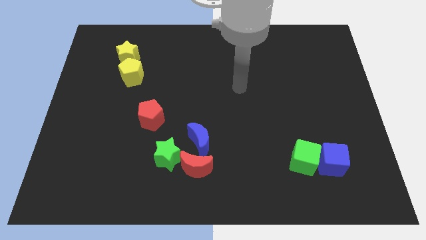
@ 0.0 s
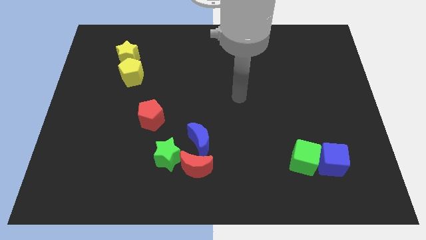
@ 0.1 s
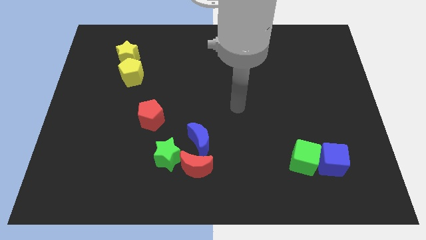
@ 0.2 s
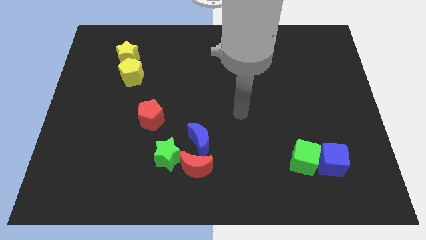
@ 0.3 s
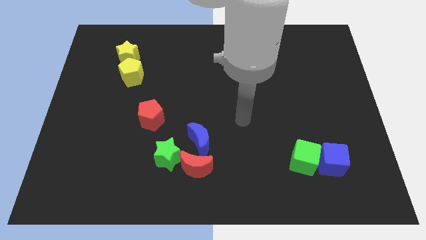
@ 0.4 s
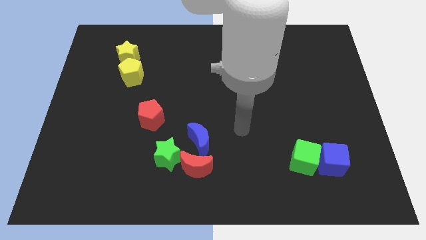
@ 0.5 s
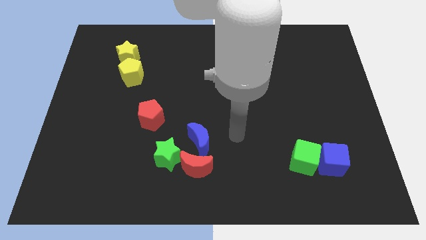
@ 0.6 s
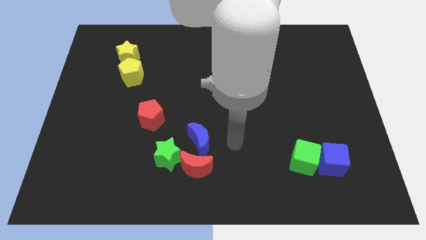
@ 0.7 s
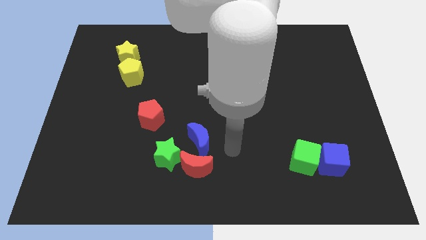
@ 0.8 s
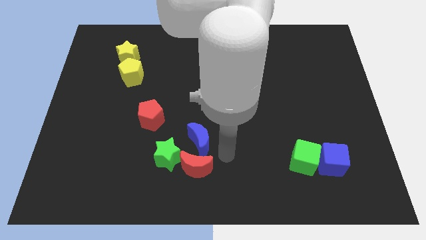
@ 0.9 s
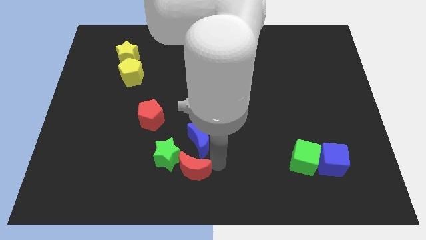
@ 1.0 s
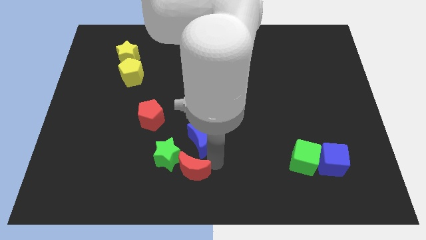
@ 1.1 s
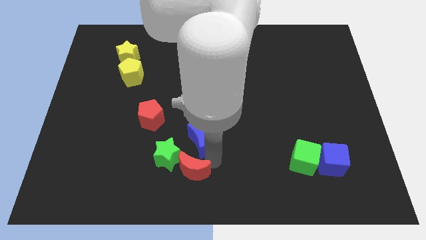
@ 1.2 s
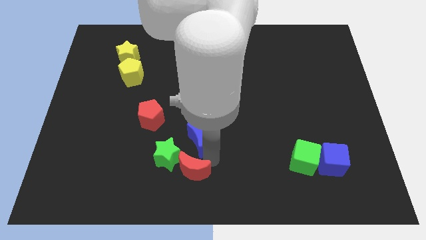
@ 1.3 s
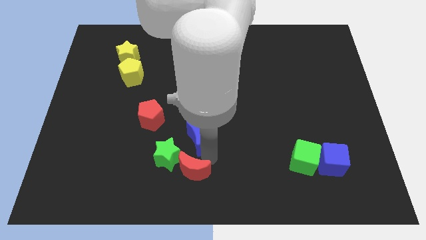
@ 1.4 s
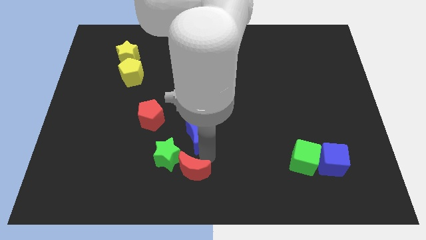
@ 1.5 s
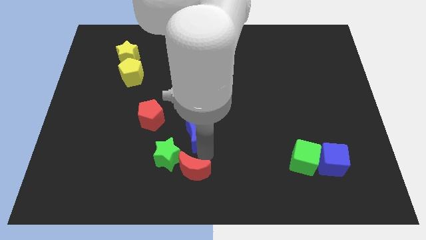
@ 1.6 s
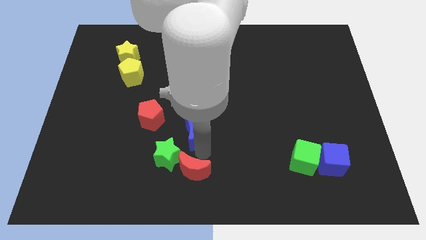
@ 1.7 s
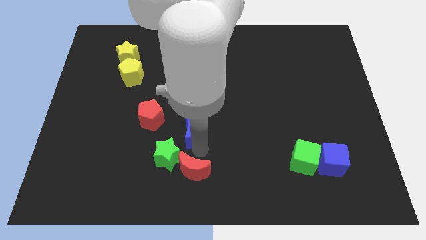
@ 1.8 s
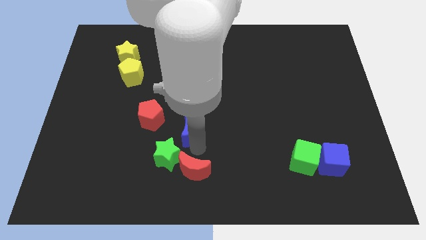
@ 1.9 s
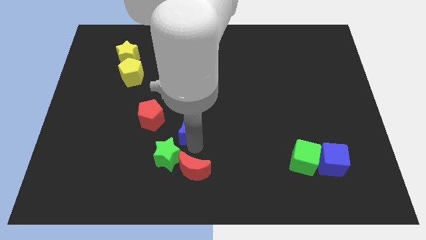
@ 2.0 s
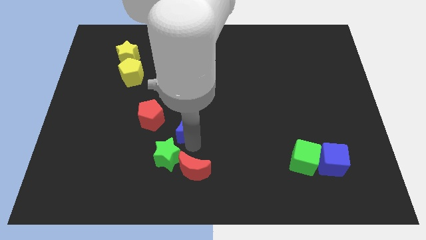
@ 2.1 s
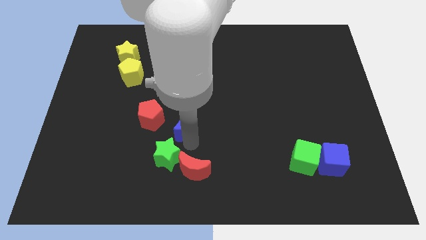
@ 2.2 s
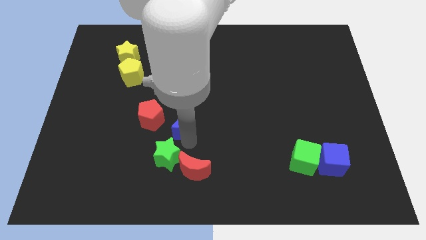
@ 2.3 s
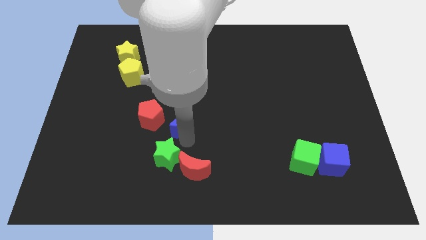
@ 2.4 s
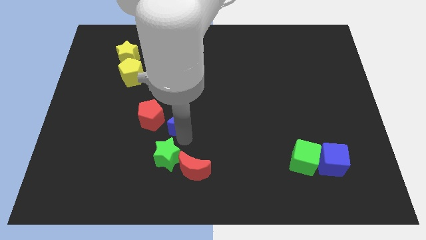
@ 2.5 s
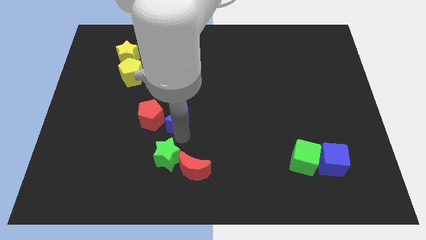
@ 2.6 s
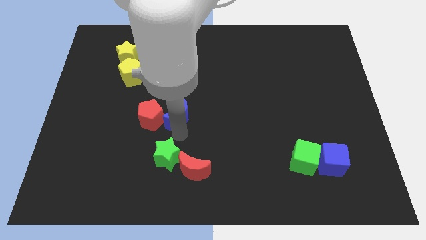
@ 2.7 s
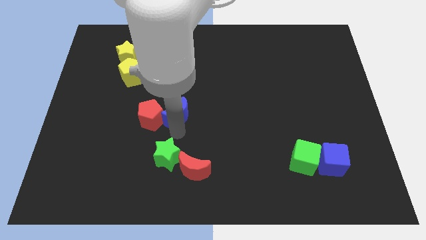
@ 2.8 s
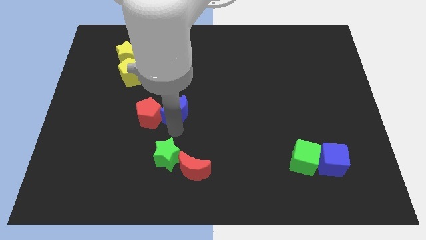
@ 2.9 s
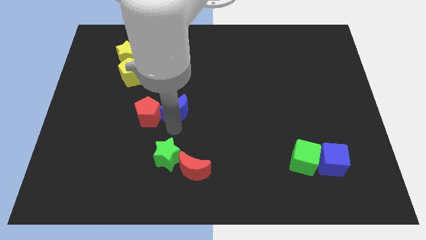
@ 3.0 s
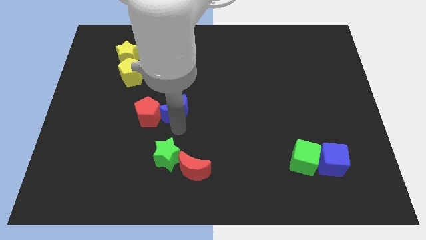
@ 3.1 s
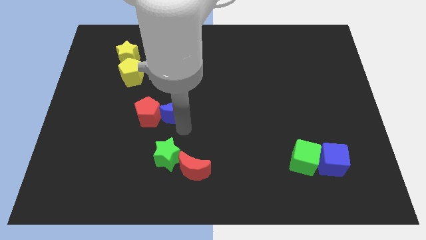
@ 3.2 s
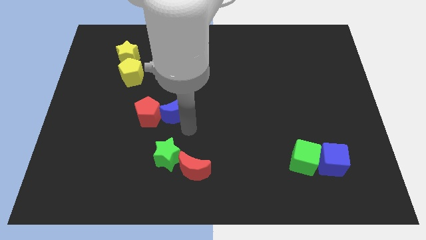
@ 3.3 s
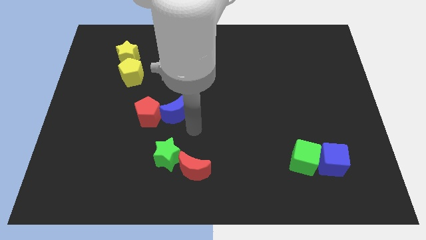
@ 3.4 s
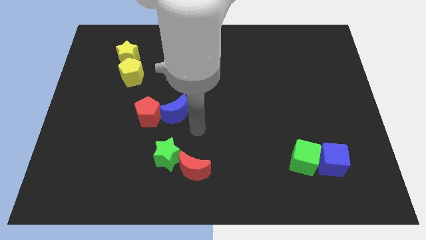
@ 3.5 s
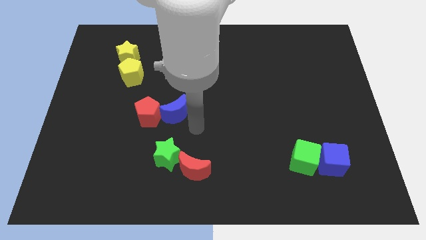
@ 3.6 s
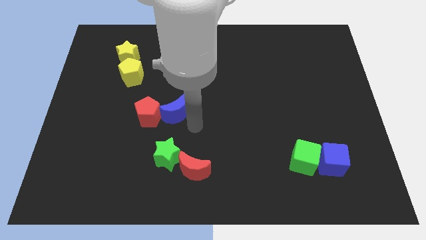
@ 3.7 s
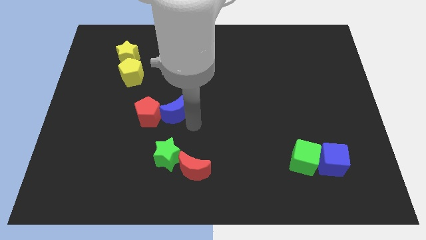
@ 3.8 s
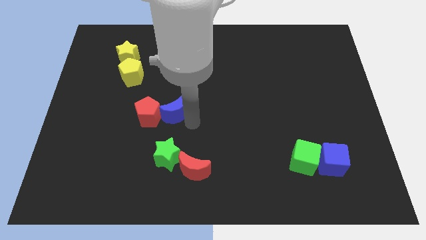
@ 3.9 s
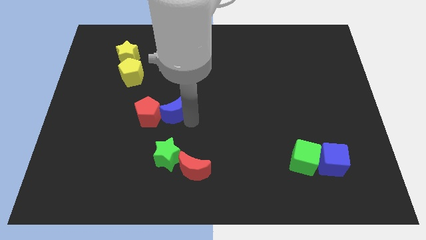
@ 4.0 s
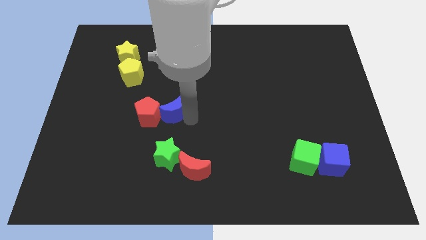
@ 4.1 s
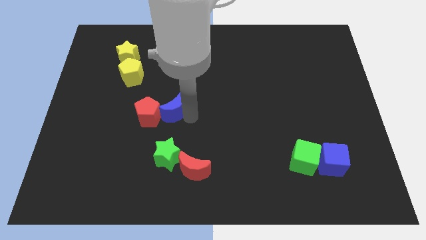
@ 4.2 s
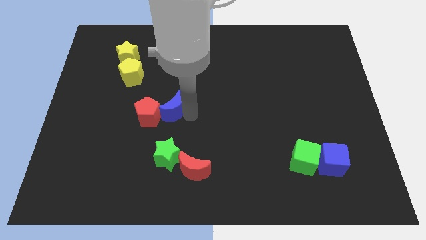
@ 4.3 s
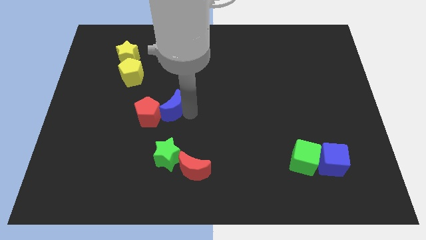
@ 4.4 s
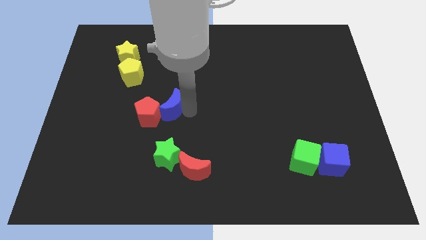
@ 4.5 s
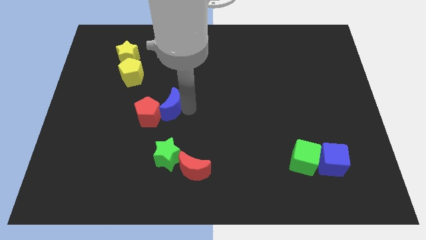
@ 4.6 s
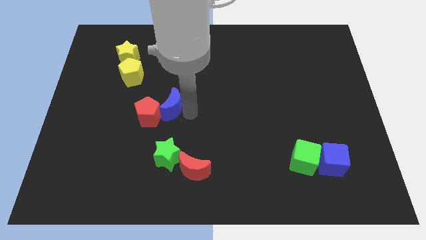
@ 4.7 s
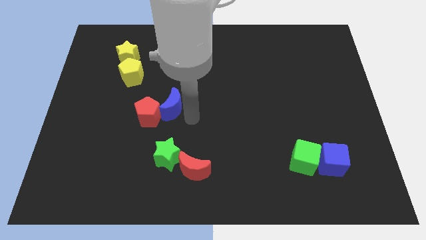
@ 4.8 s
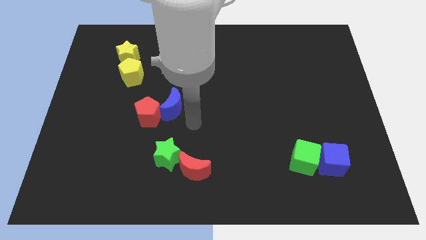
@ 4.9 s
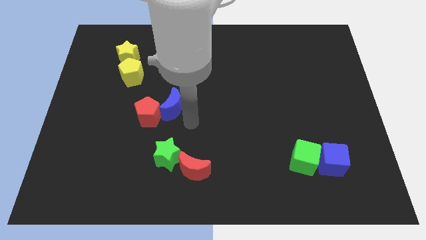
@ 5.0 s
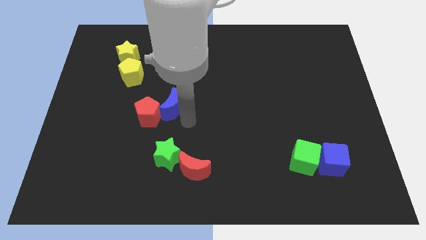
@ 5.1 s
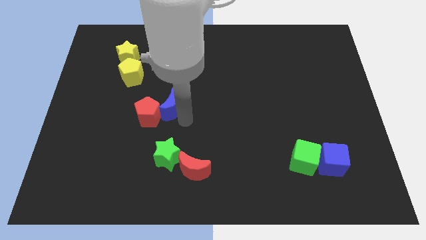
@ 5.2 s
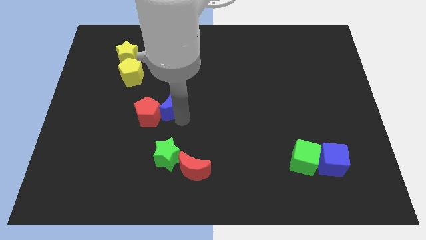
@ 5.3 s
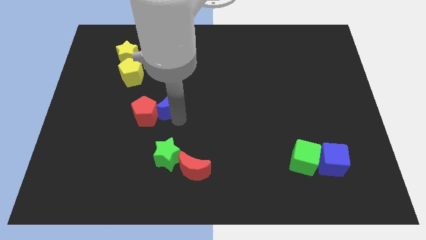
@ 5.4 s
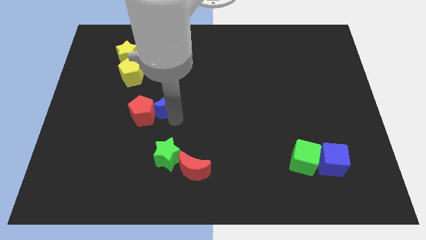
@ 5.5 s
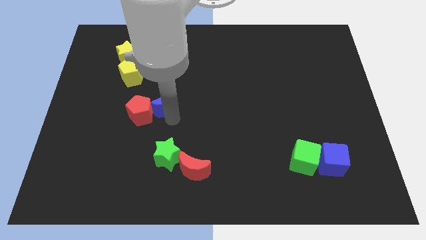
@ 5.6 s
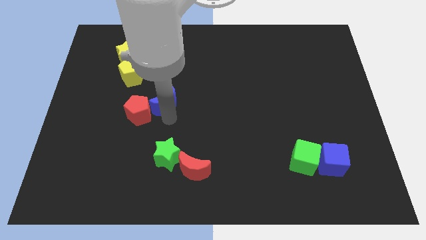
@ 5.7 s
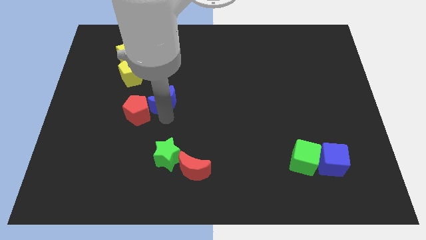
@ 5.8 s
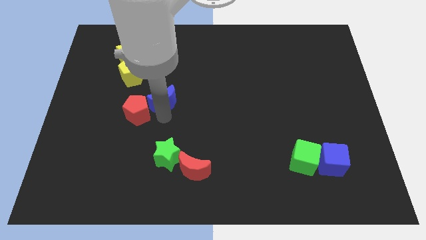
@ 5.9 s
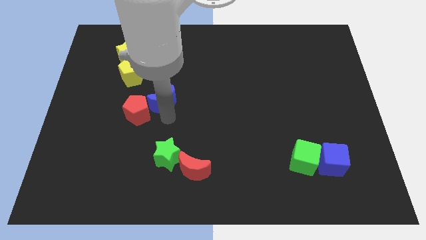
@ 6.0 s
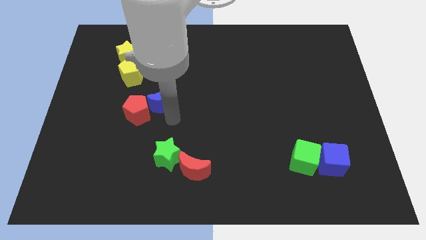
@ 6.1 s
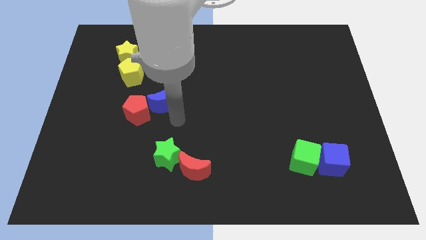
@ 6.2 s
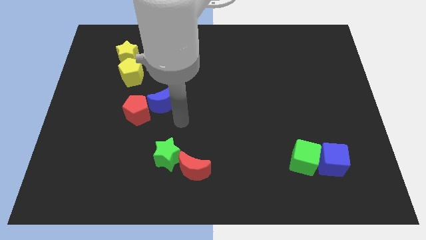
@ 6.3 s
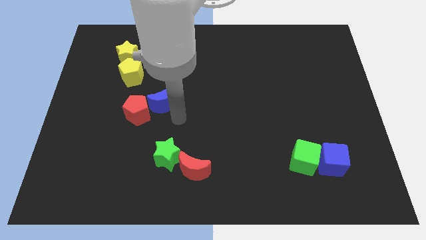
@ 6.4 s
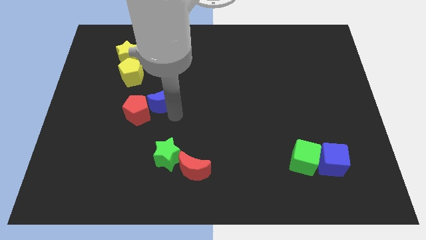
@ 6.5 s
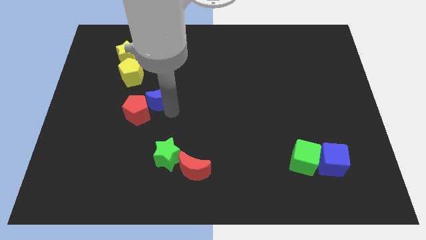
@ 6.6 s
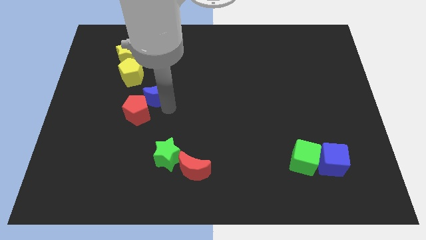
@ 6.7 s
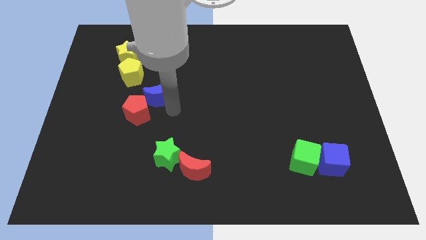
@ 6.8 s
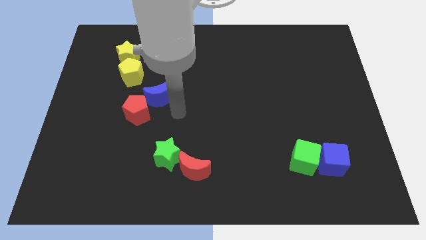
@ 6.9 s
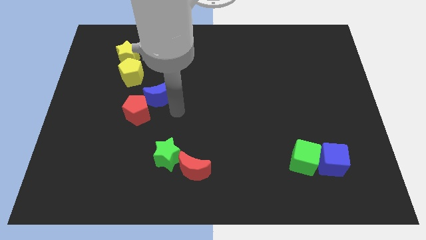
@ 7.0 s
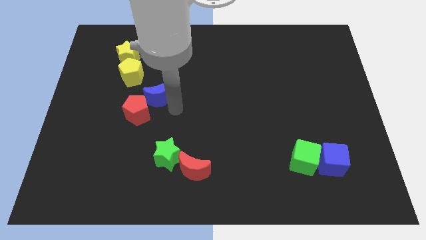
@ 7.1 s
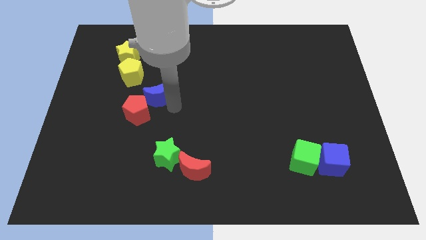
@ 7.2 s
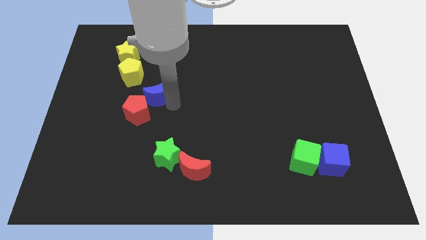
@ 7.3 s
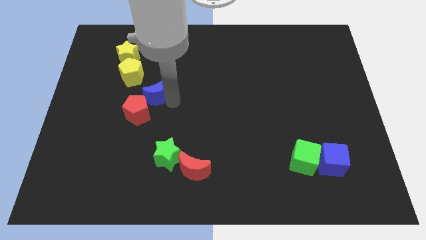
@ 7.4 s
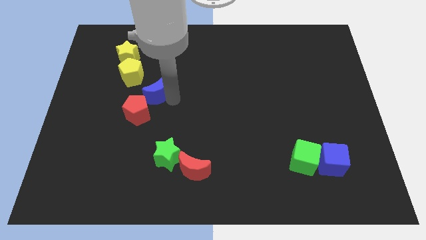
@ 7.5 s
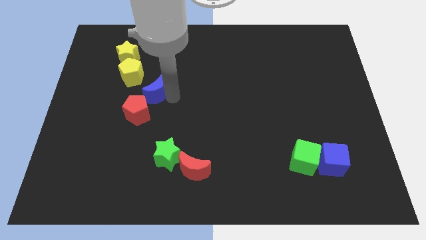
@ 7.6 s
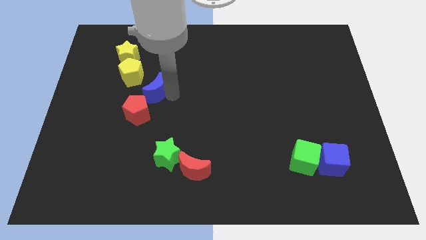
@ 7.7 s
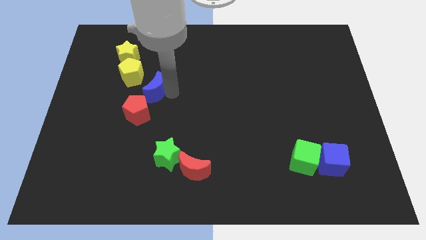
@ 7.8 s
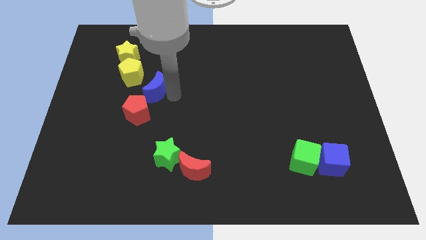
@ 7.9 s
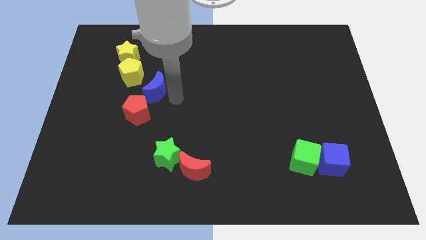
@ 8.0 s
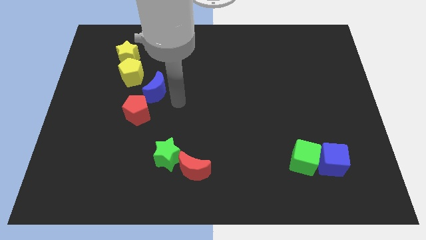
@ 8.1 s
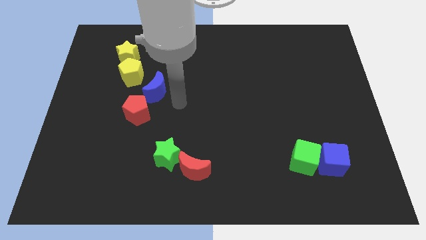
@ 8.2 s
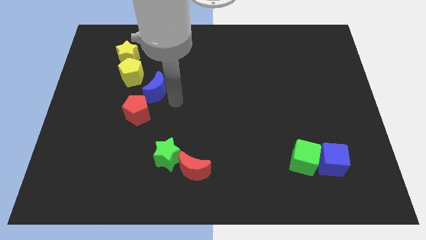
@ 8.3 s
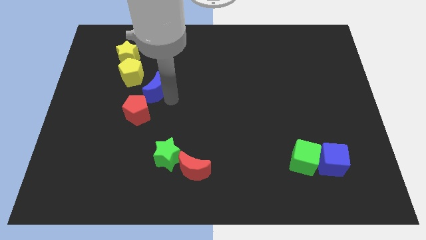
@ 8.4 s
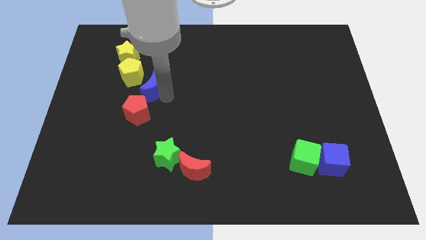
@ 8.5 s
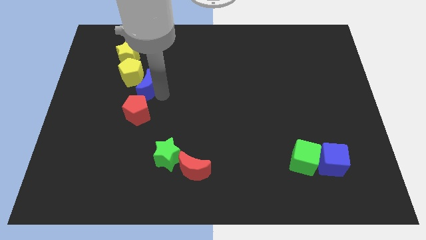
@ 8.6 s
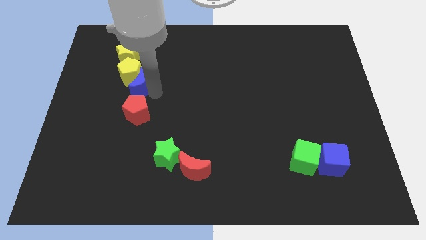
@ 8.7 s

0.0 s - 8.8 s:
push the blue moon close to the yellow pentagon
